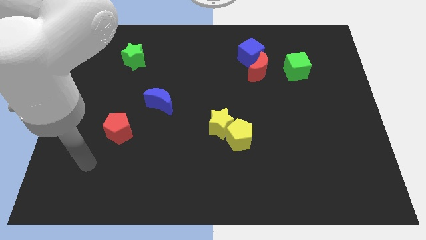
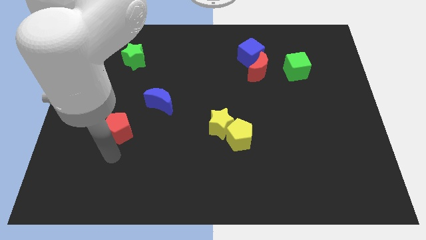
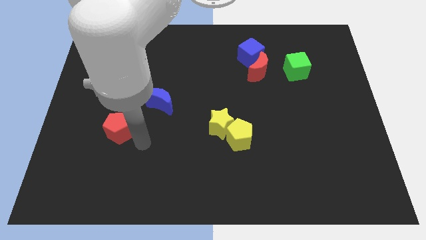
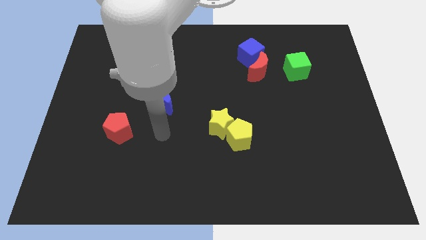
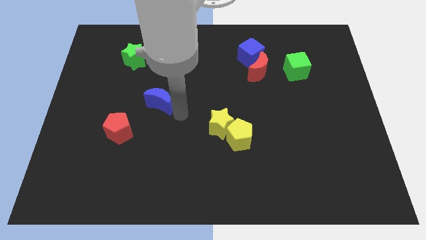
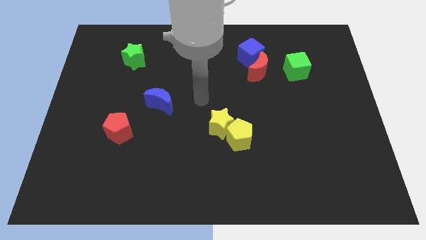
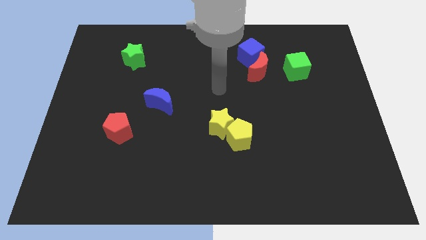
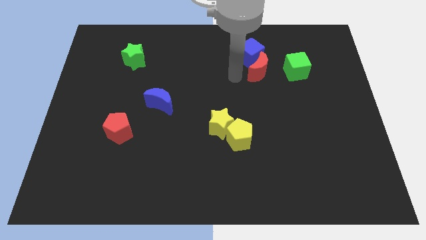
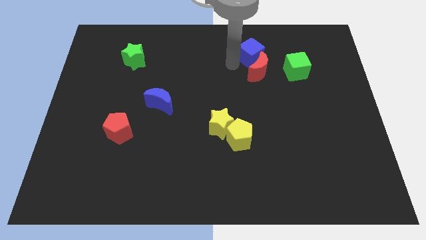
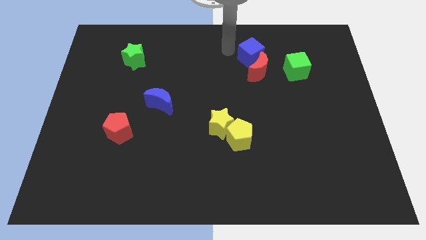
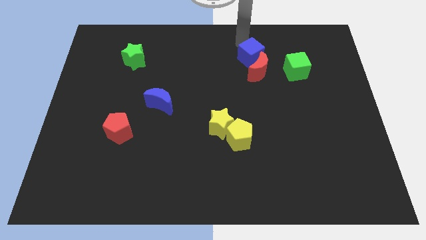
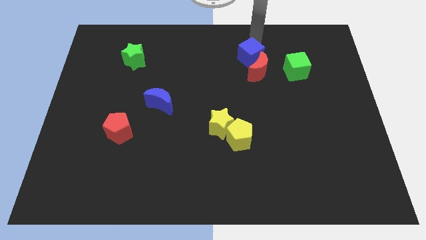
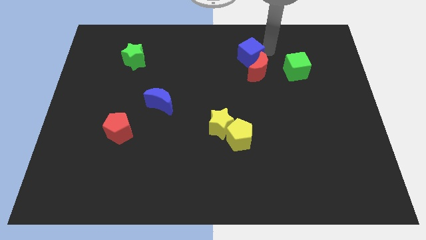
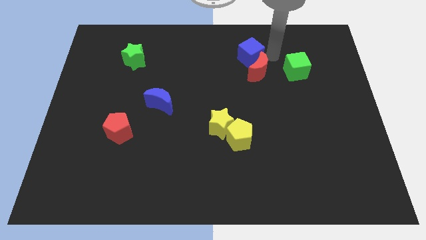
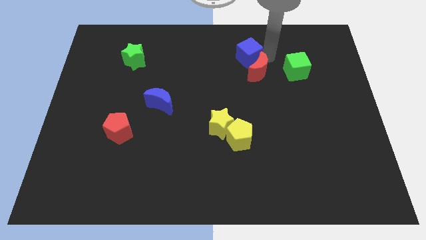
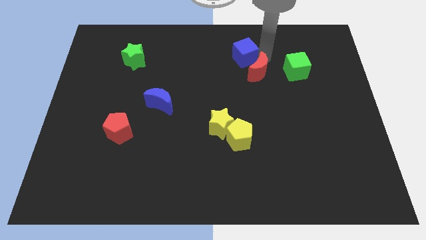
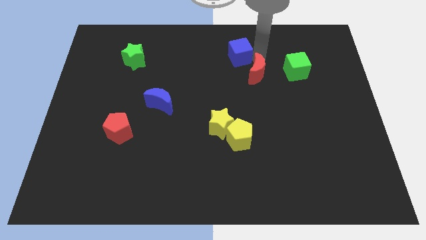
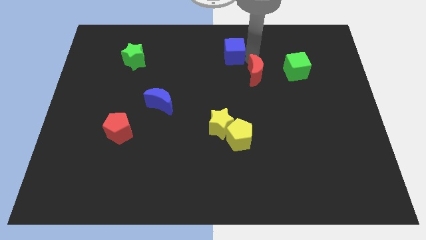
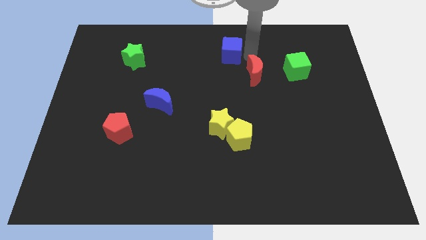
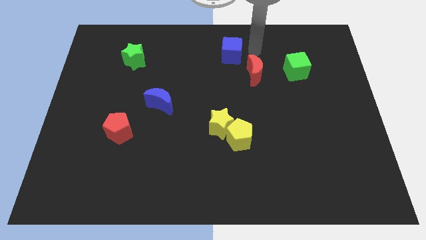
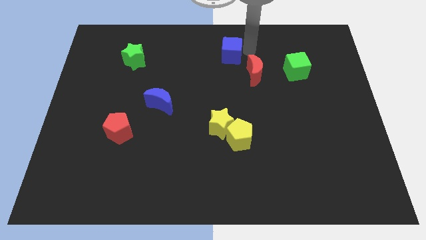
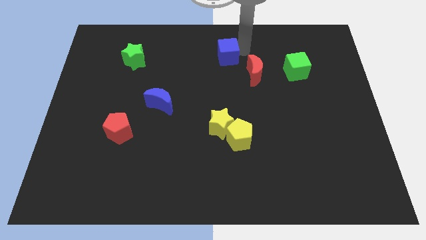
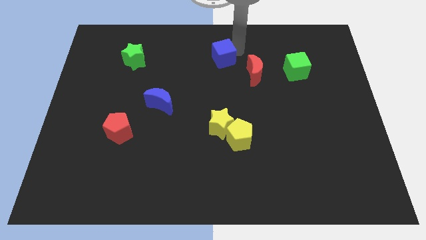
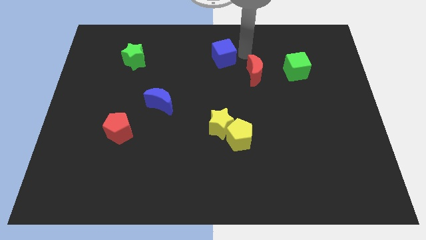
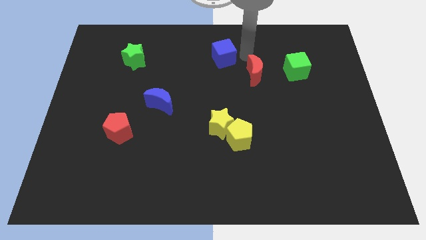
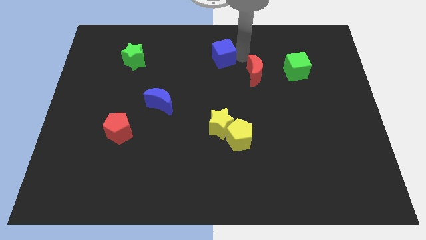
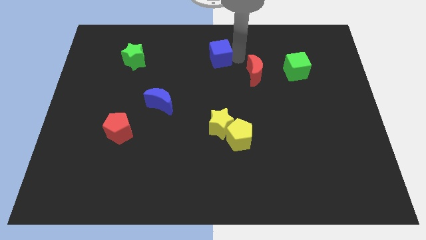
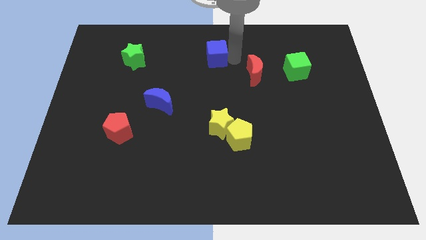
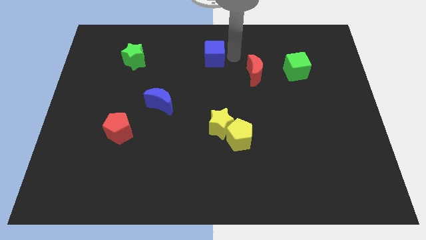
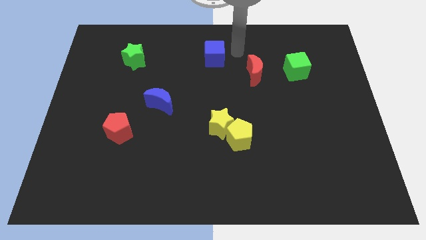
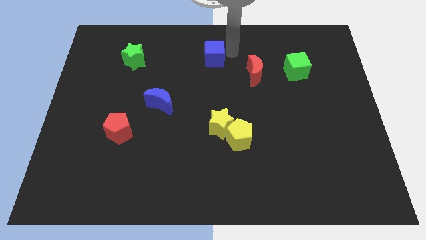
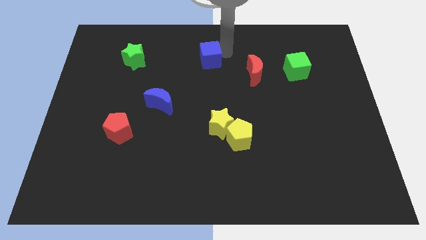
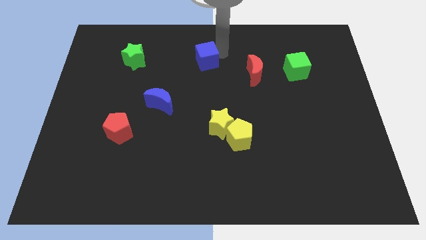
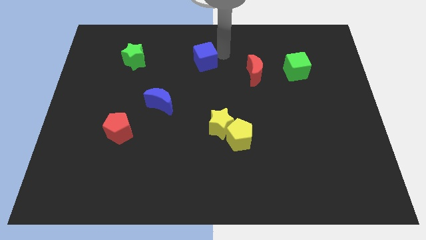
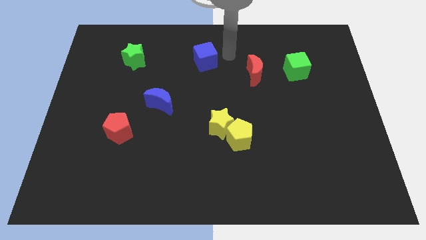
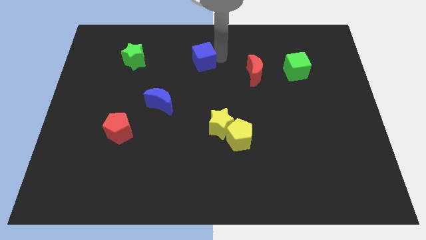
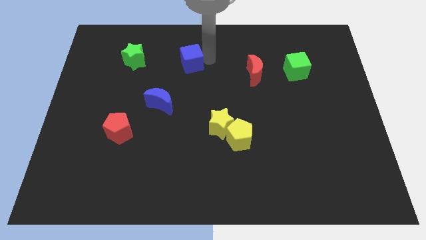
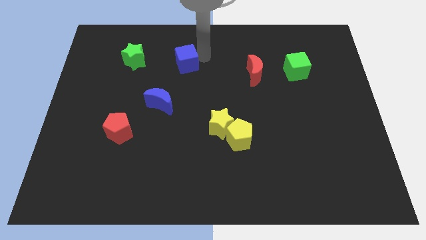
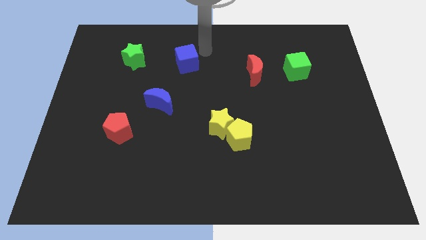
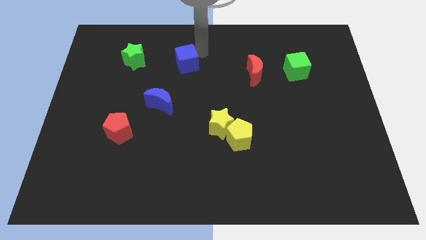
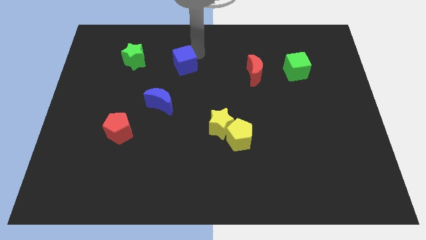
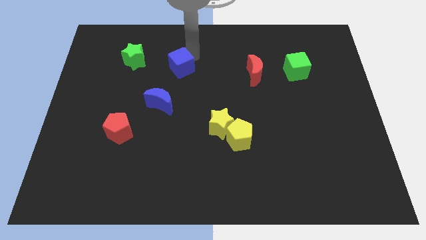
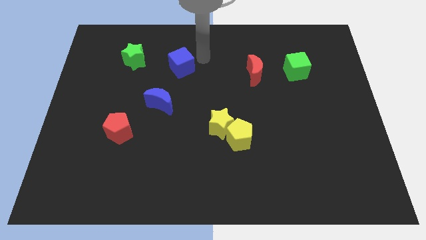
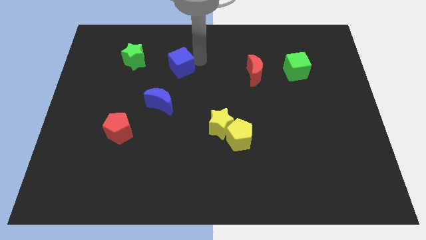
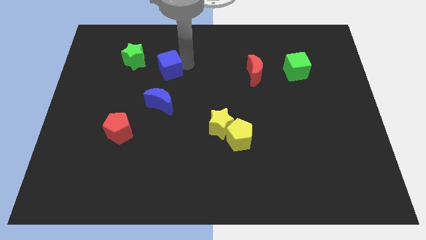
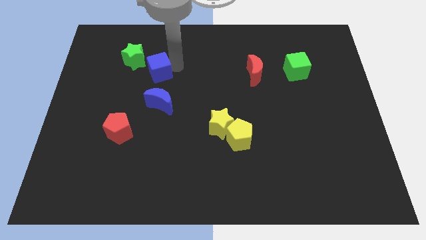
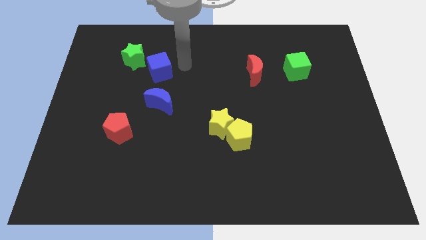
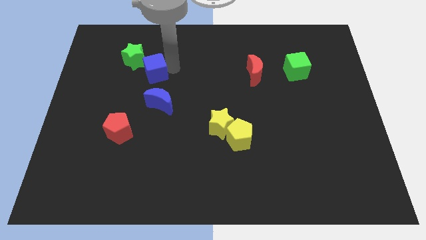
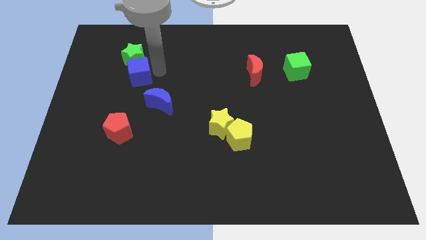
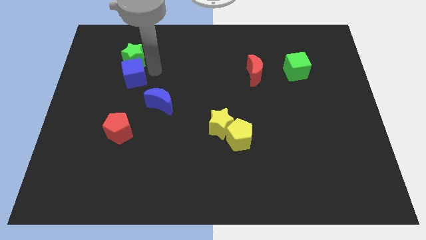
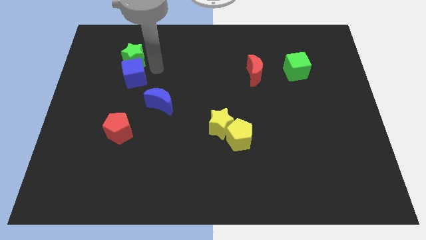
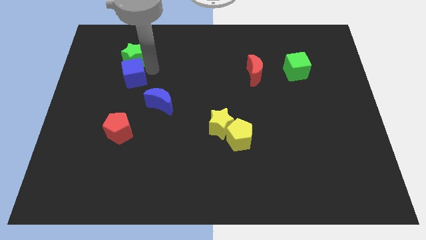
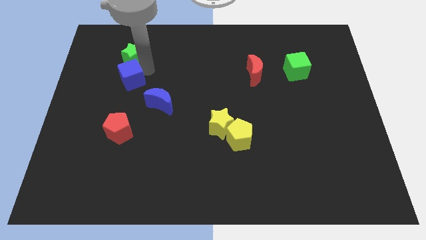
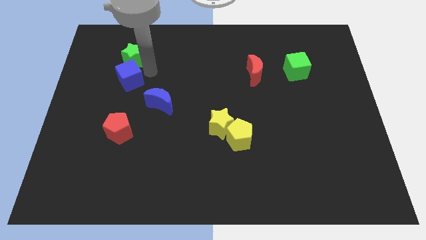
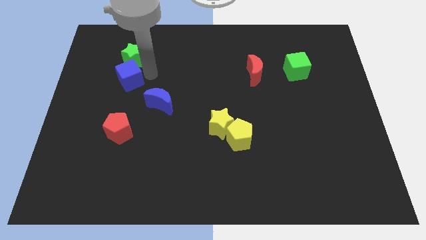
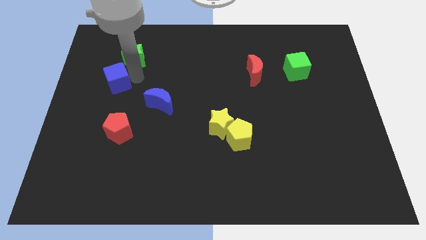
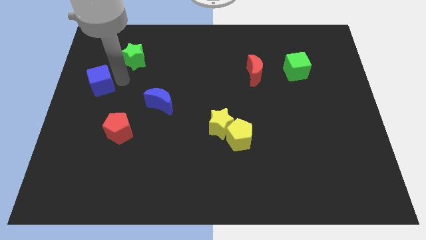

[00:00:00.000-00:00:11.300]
move the blue cube to the left side
